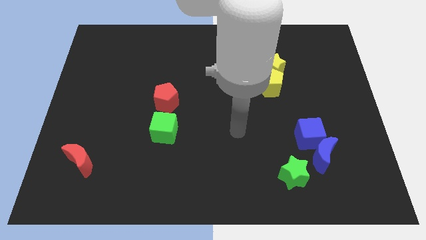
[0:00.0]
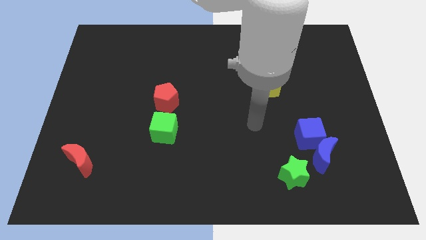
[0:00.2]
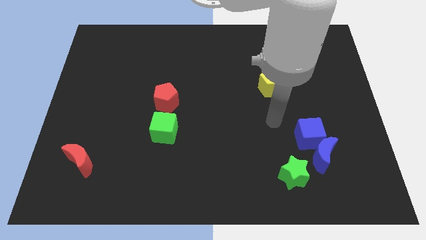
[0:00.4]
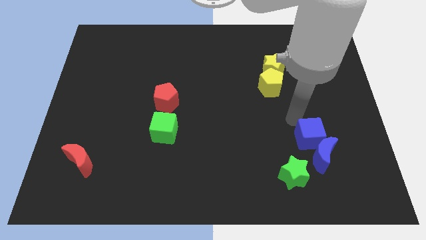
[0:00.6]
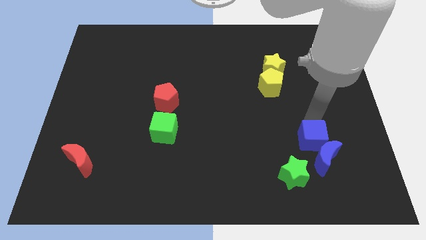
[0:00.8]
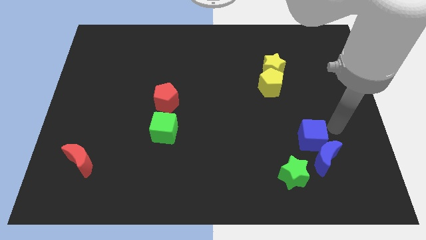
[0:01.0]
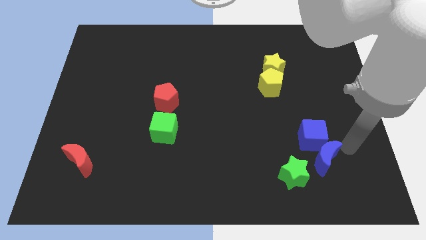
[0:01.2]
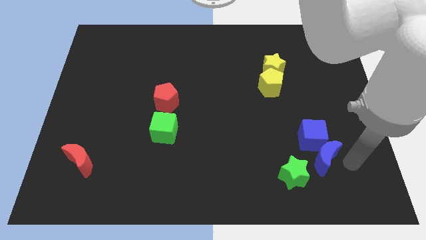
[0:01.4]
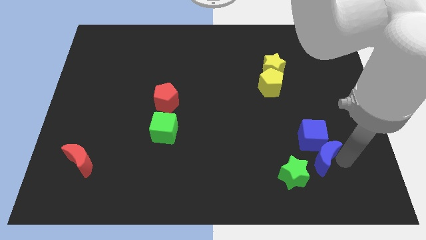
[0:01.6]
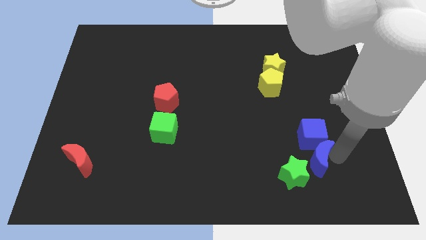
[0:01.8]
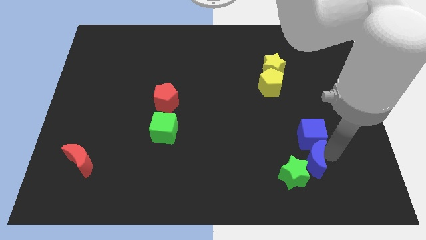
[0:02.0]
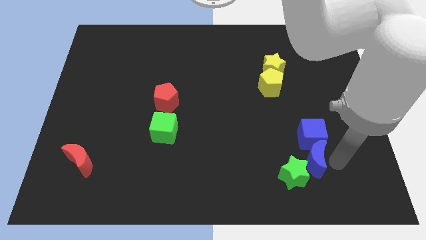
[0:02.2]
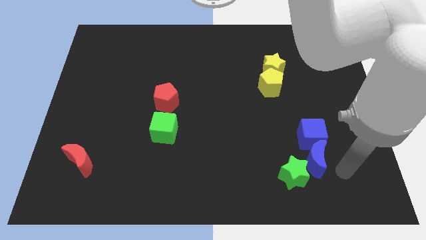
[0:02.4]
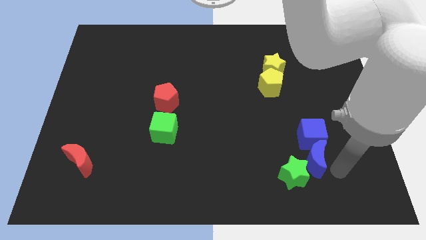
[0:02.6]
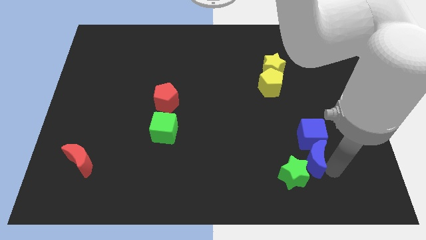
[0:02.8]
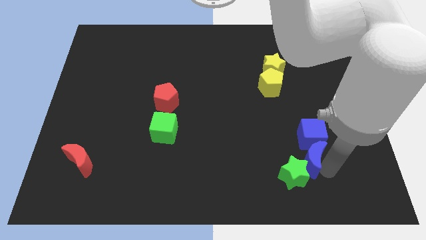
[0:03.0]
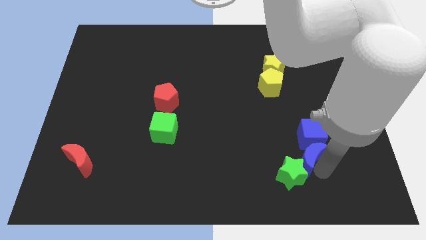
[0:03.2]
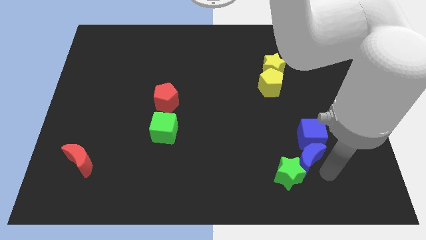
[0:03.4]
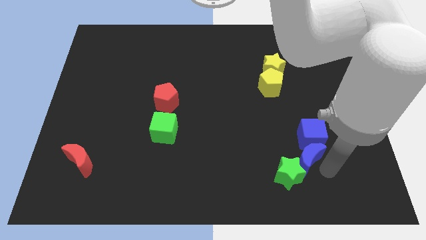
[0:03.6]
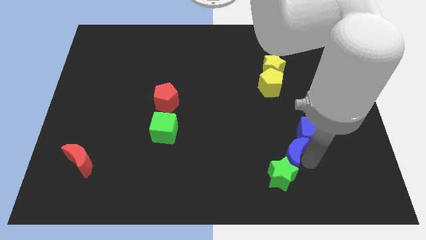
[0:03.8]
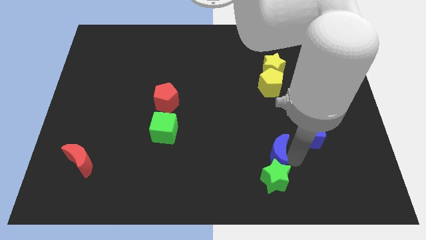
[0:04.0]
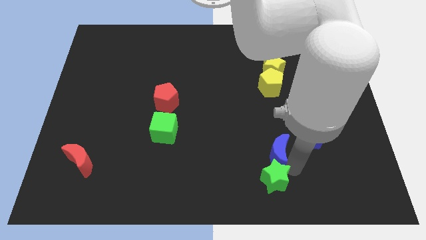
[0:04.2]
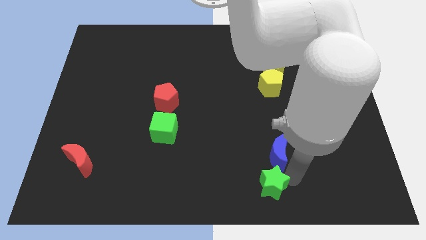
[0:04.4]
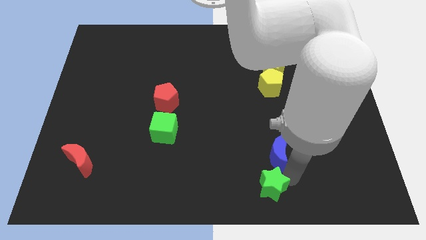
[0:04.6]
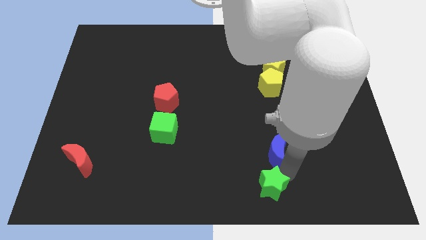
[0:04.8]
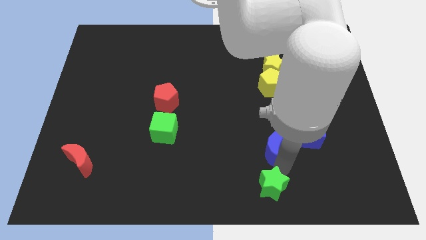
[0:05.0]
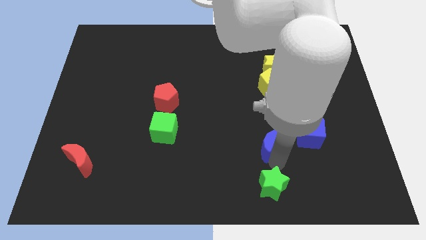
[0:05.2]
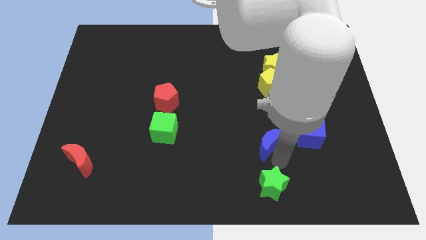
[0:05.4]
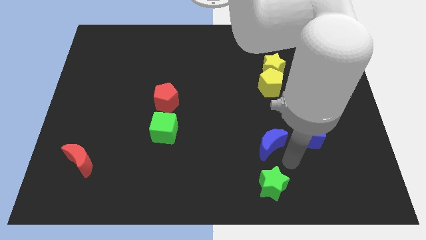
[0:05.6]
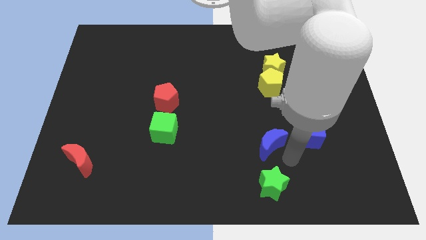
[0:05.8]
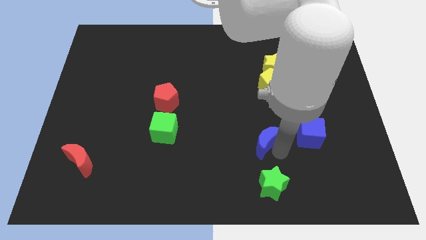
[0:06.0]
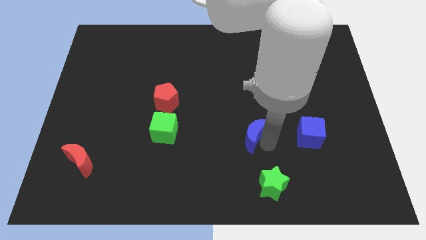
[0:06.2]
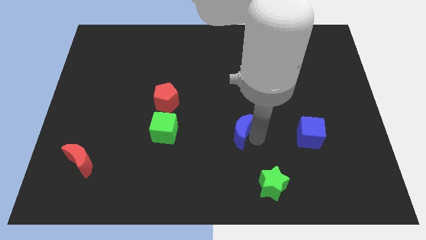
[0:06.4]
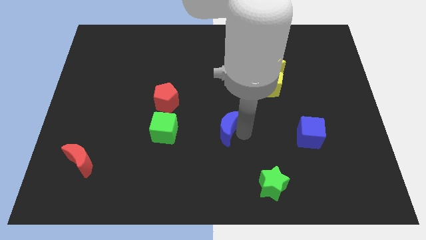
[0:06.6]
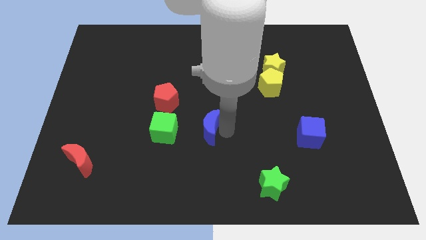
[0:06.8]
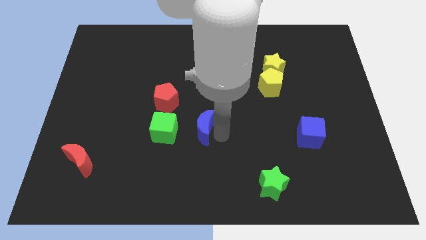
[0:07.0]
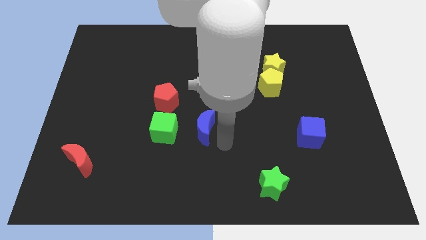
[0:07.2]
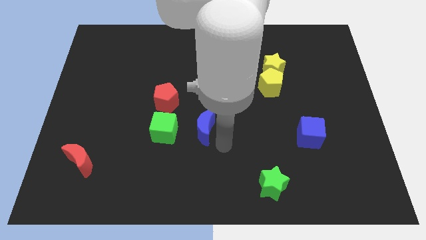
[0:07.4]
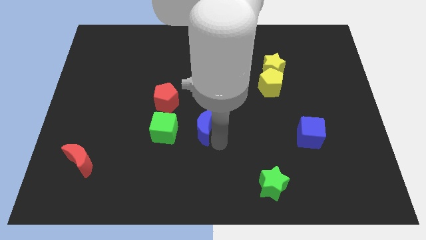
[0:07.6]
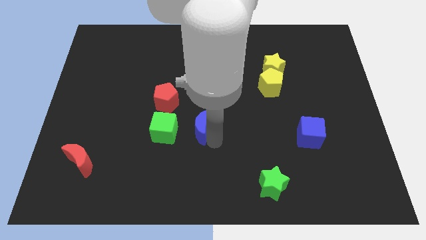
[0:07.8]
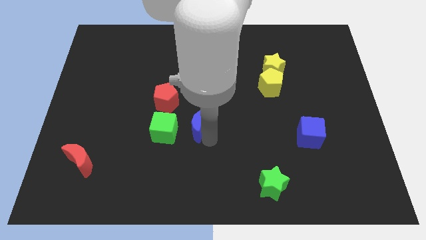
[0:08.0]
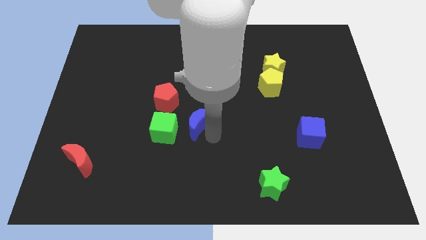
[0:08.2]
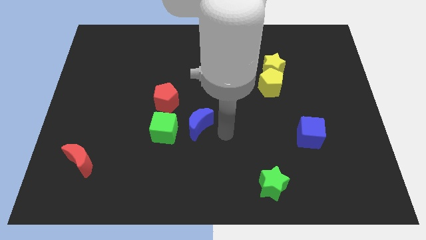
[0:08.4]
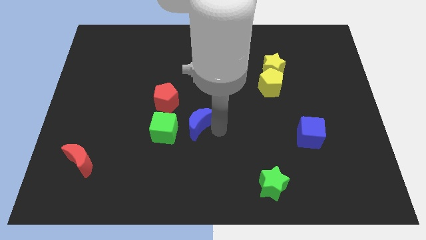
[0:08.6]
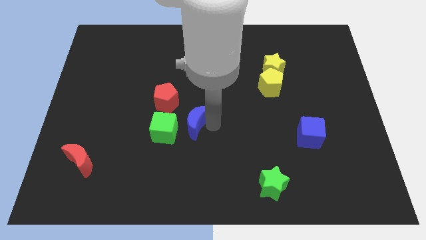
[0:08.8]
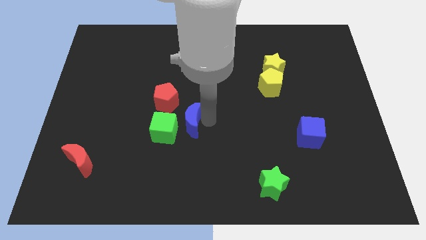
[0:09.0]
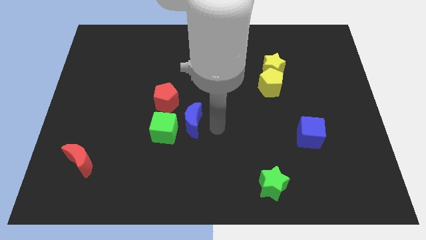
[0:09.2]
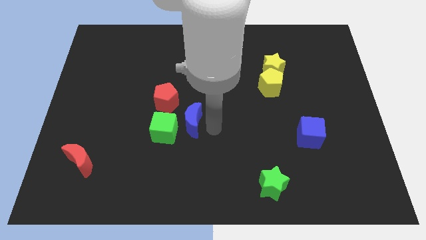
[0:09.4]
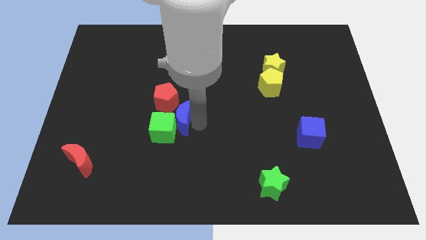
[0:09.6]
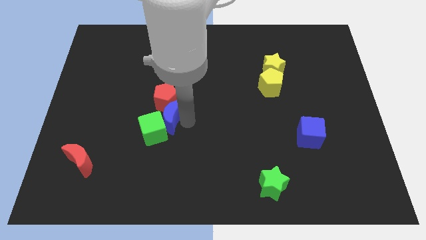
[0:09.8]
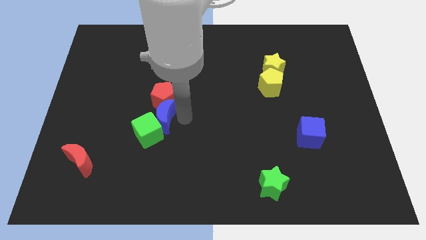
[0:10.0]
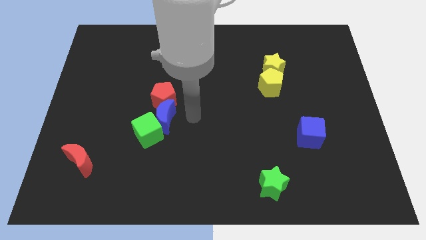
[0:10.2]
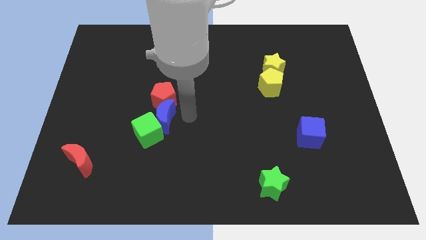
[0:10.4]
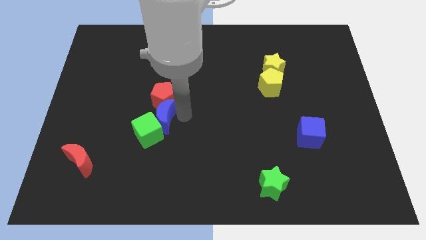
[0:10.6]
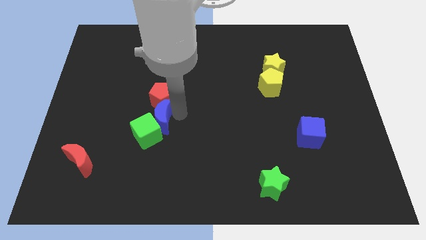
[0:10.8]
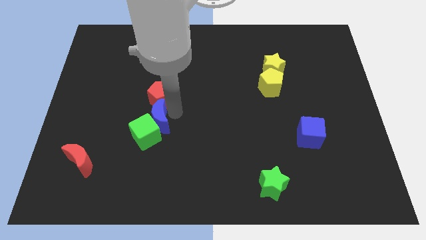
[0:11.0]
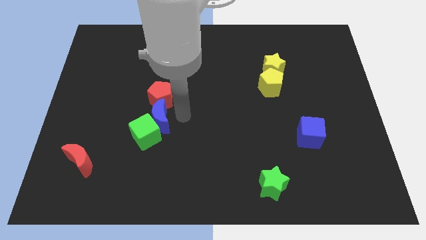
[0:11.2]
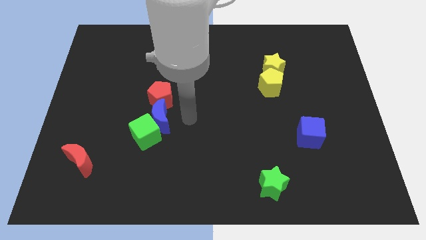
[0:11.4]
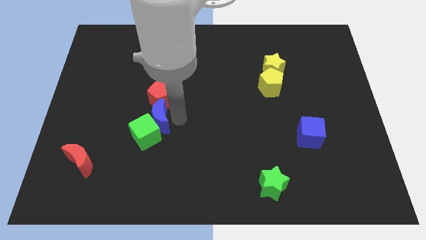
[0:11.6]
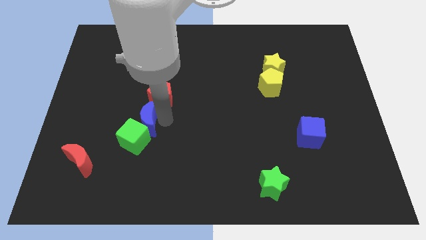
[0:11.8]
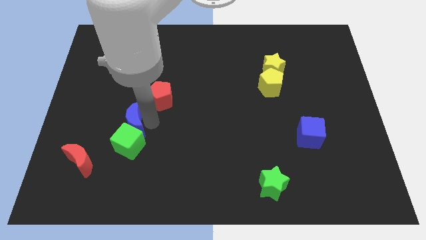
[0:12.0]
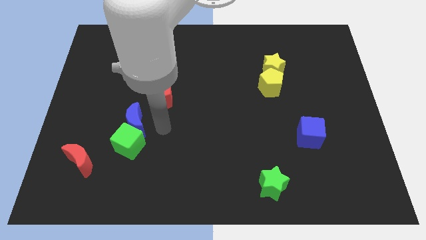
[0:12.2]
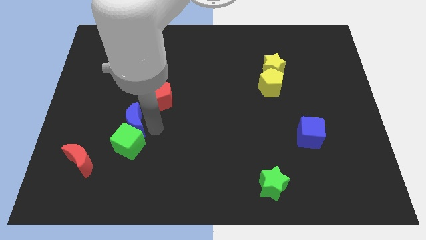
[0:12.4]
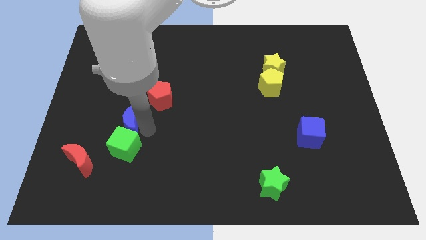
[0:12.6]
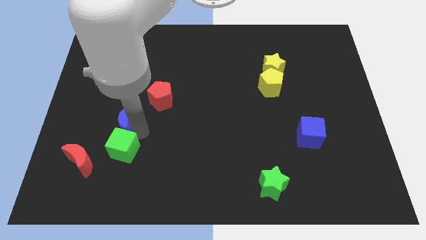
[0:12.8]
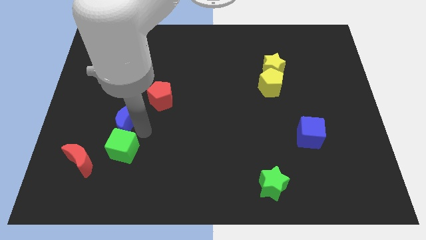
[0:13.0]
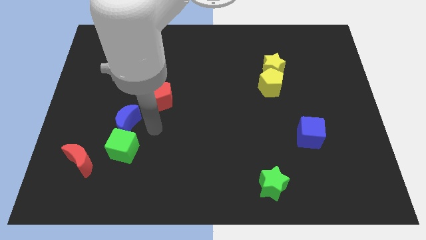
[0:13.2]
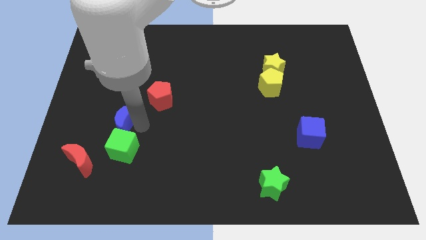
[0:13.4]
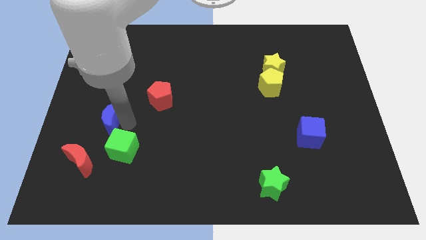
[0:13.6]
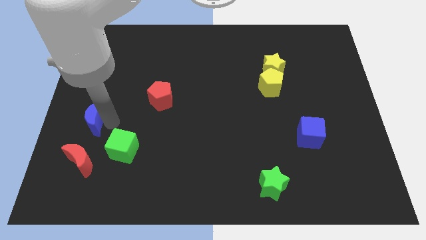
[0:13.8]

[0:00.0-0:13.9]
move the blue moon to the left side
